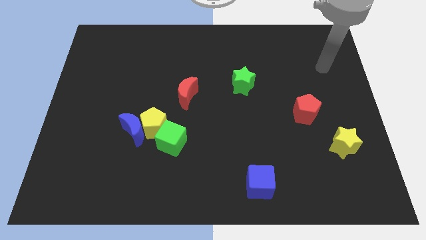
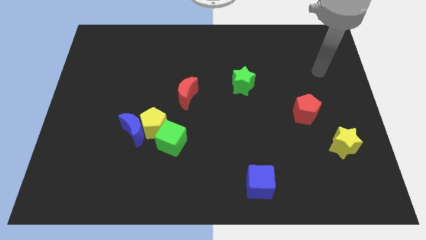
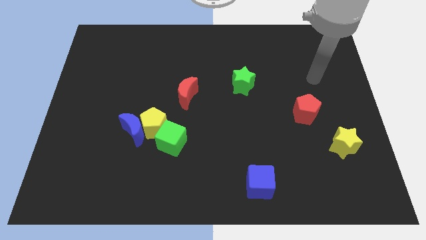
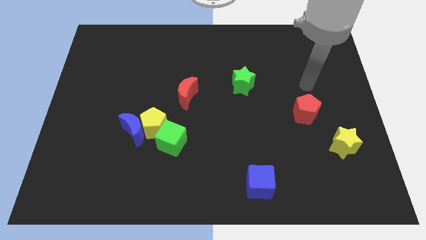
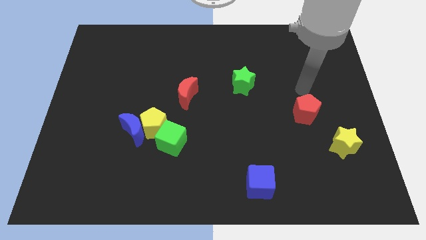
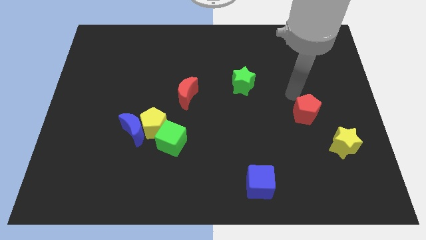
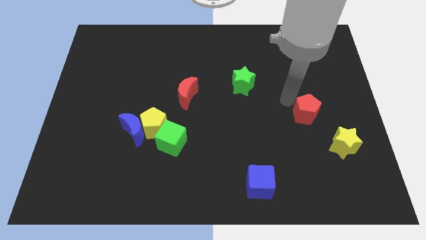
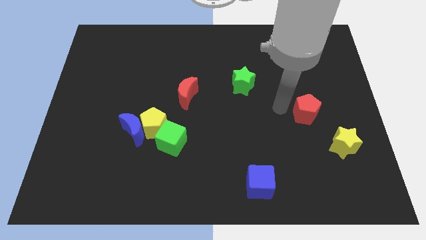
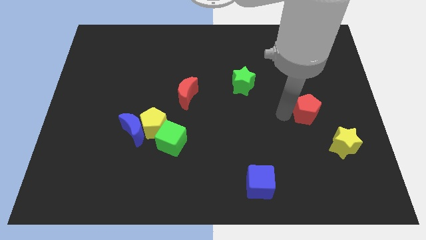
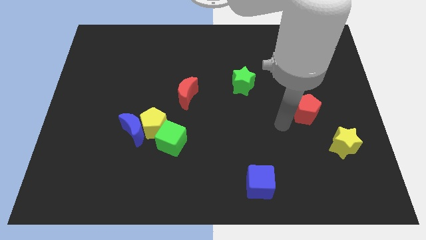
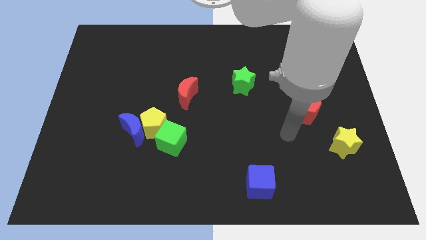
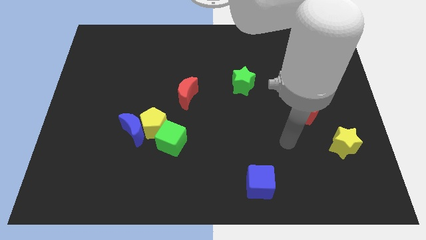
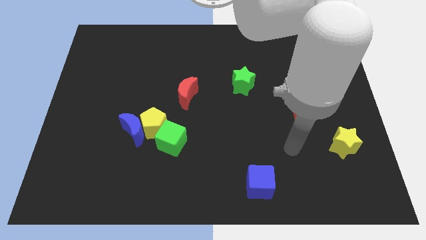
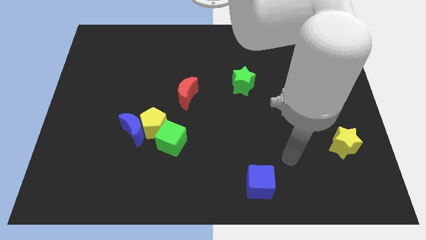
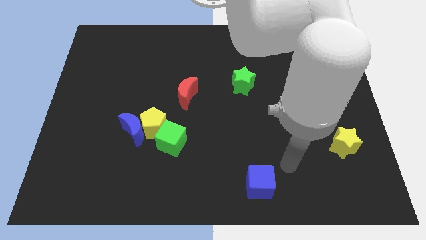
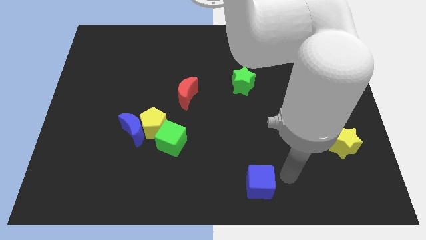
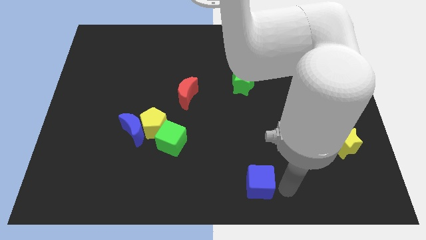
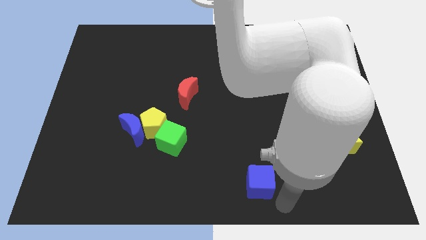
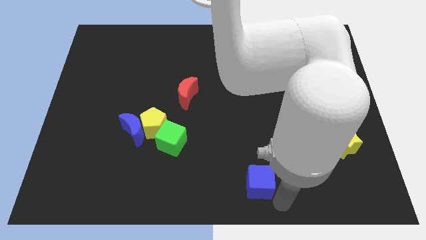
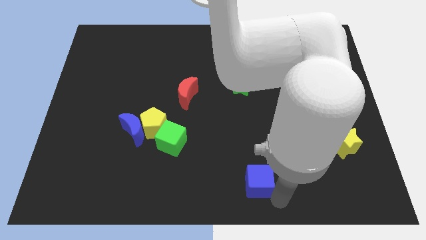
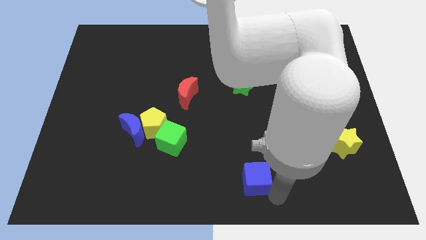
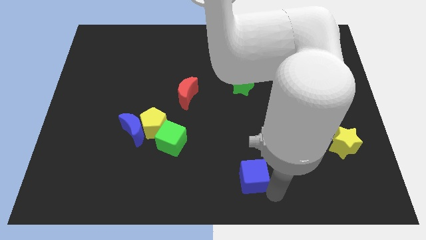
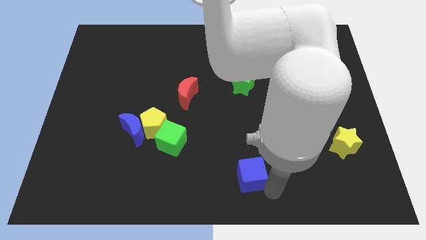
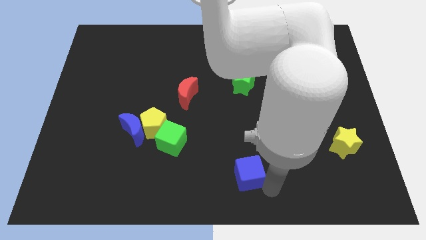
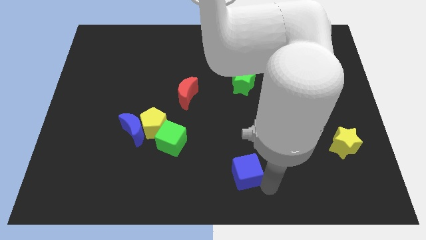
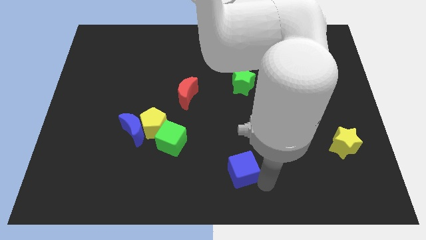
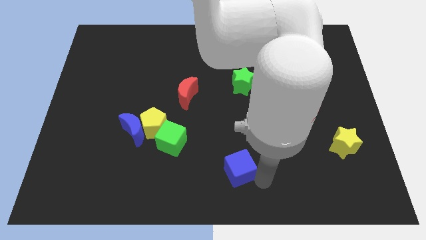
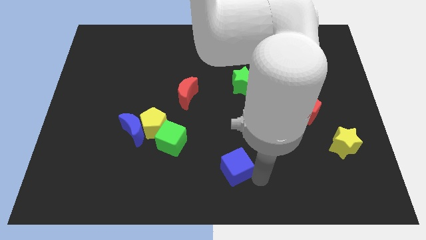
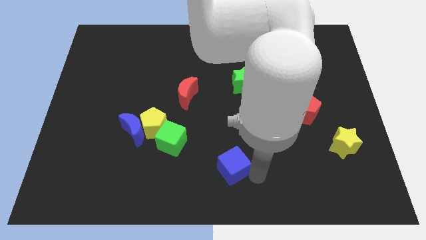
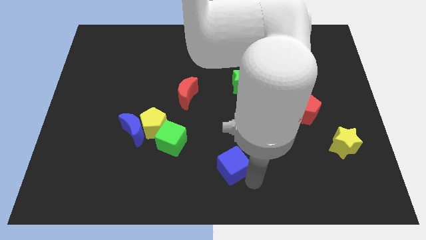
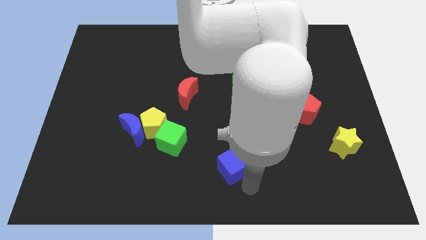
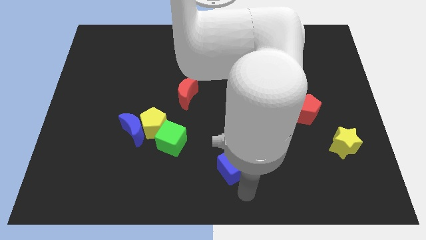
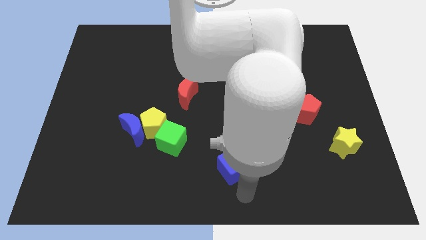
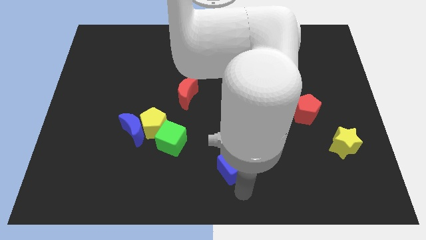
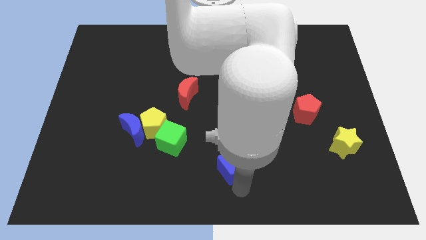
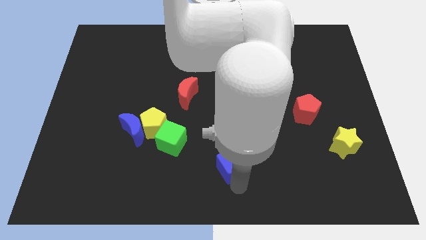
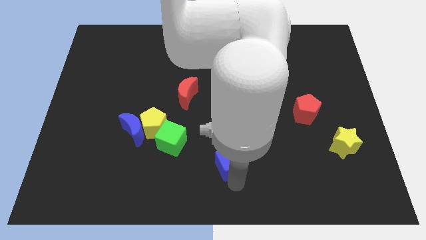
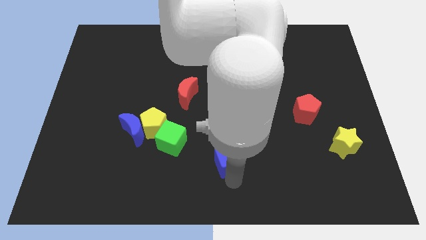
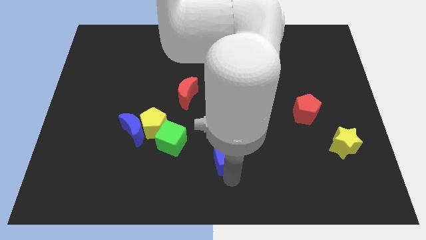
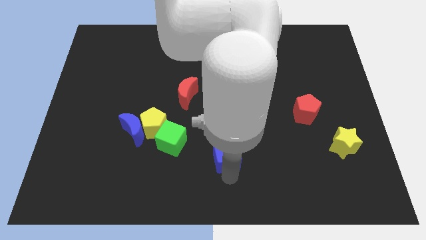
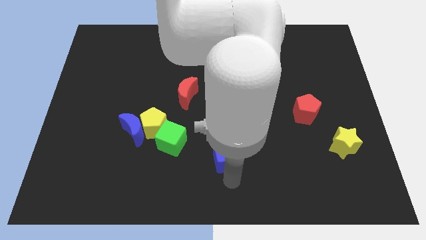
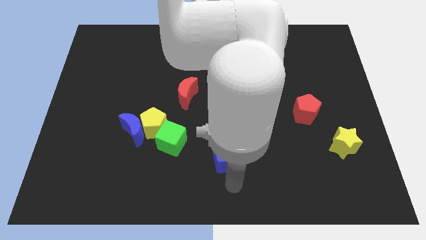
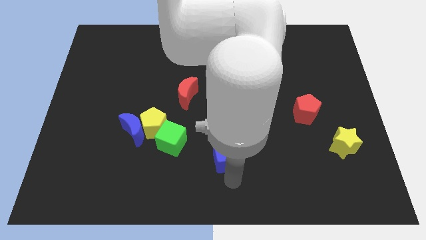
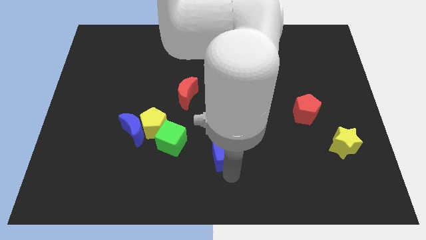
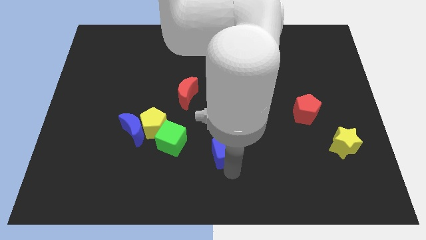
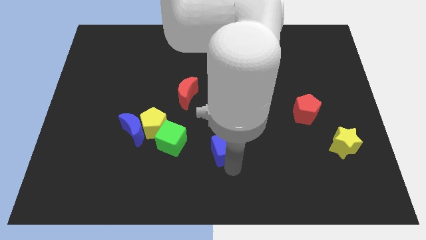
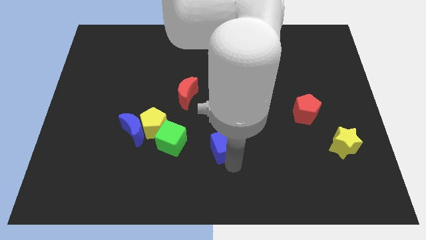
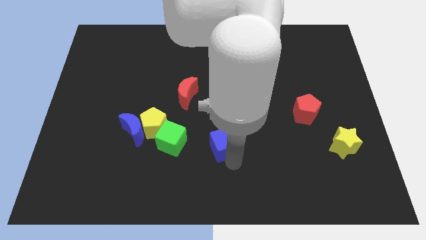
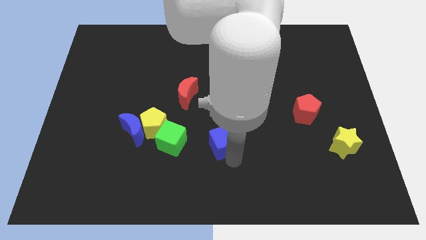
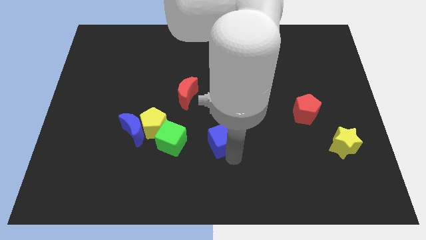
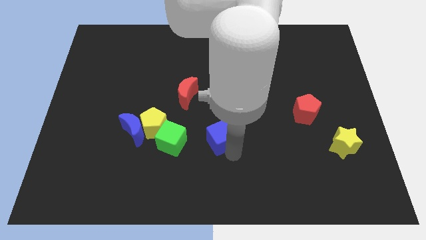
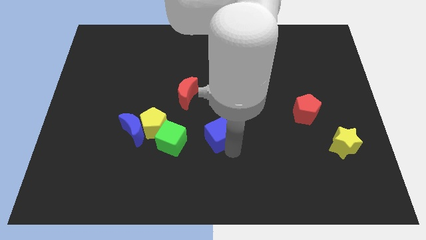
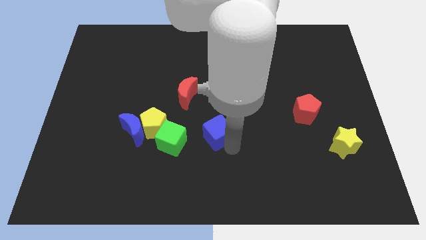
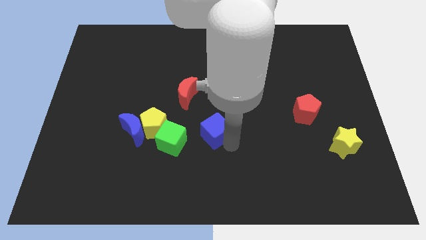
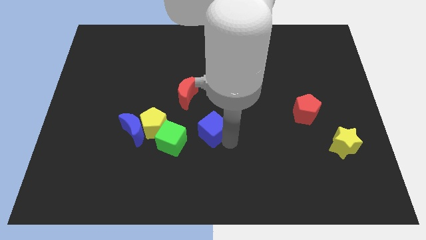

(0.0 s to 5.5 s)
push the blue cube to the top right of the green cube

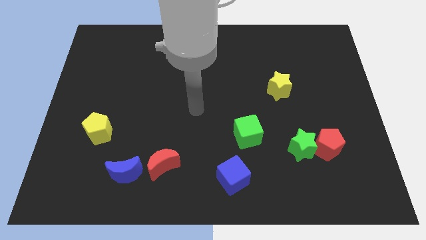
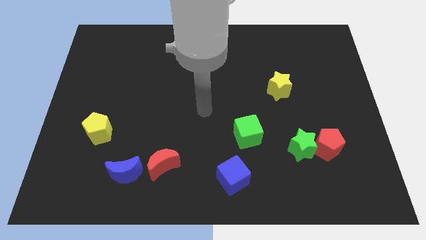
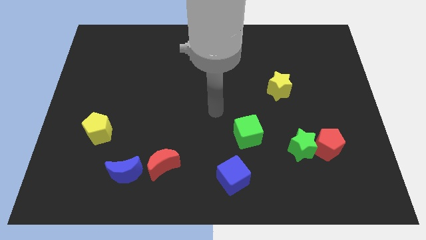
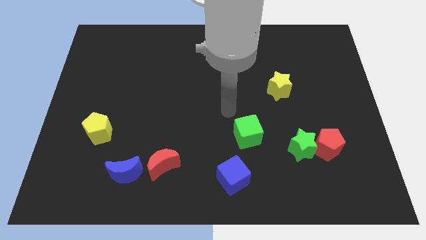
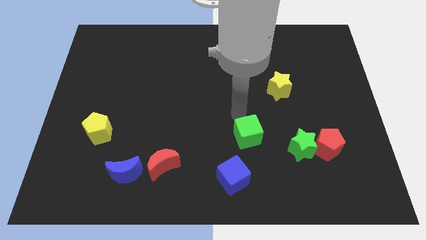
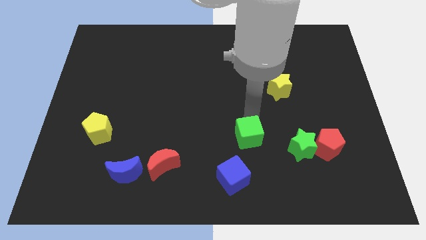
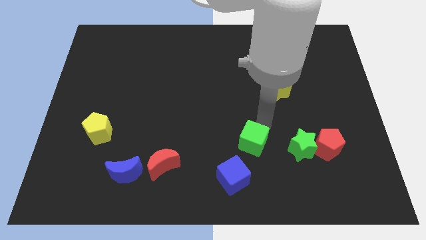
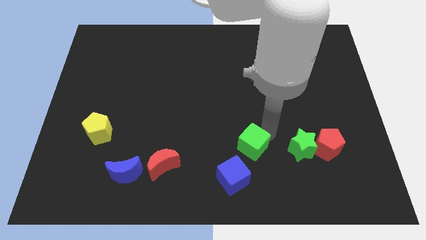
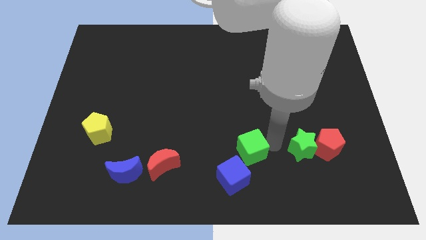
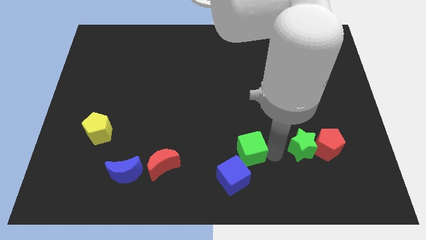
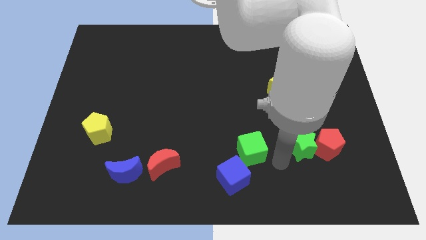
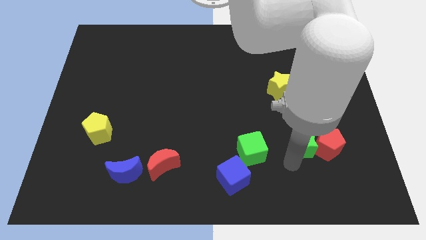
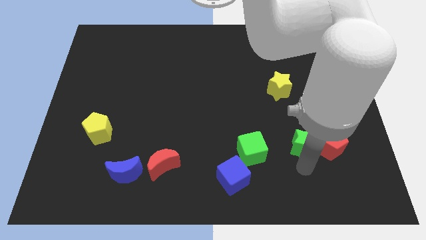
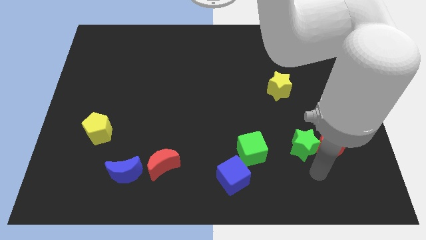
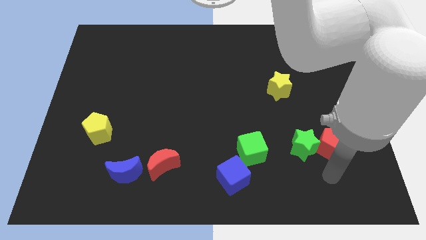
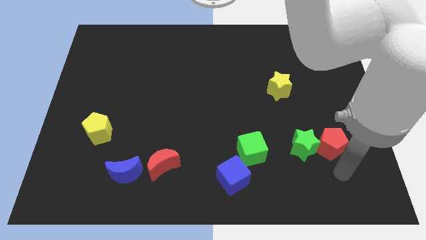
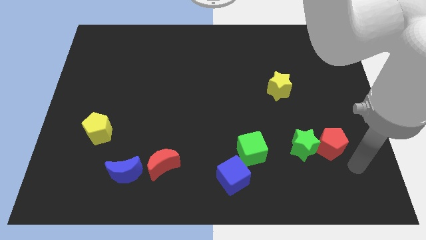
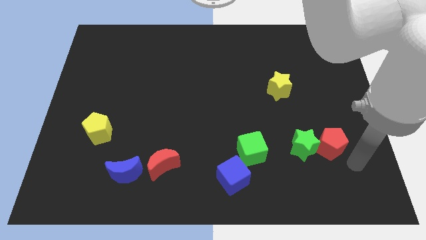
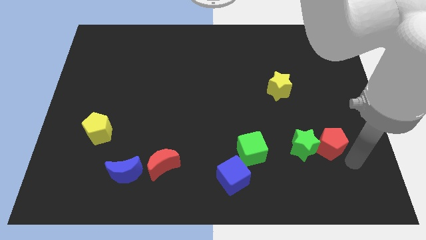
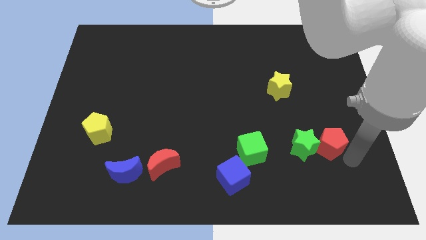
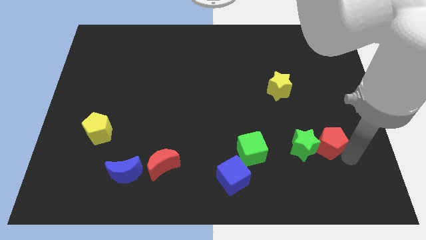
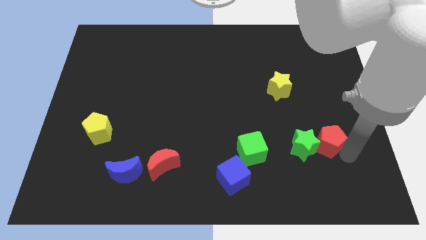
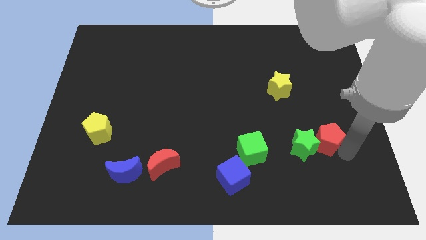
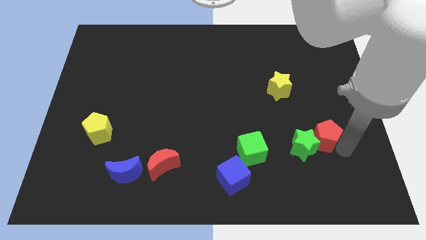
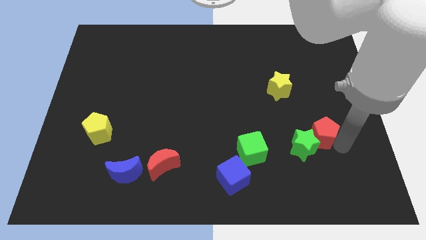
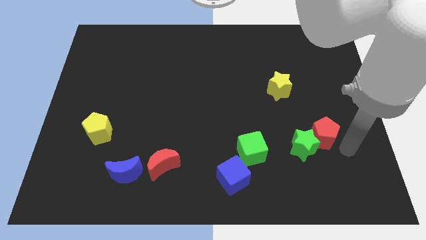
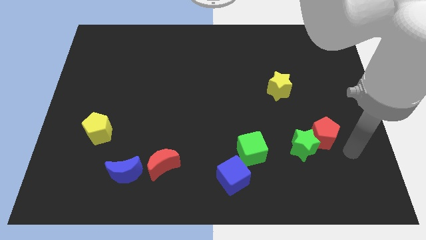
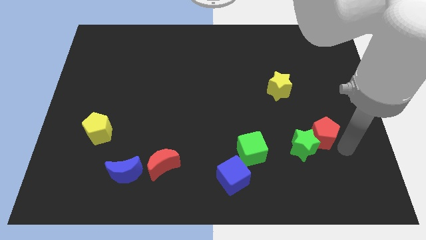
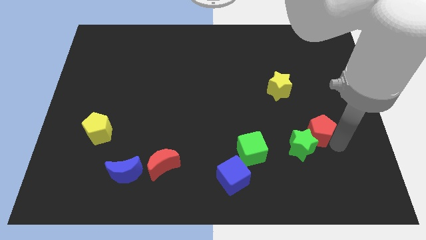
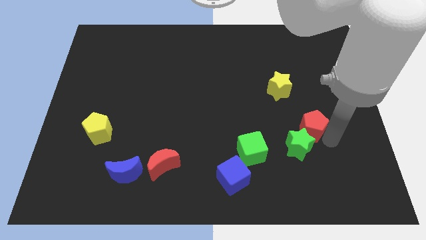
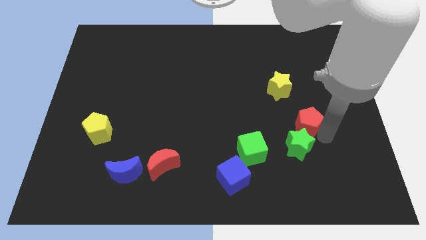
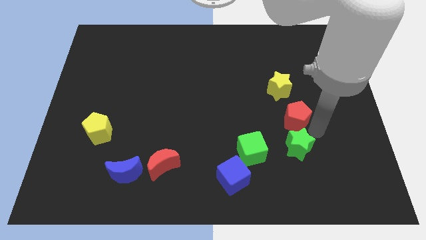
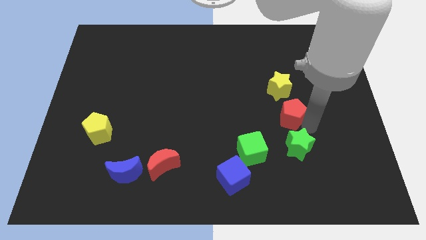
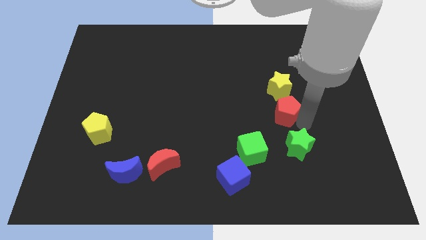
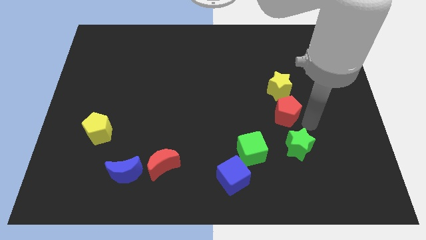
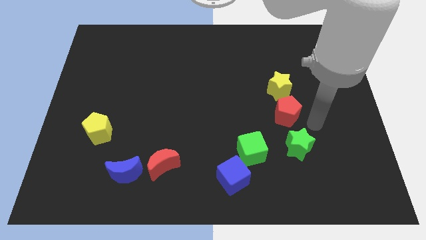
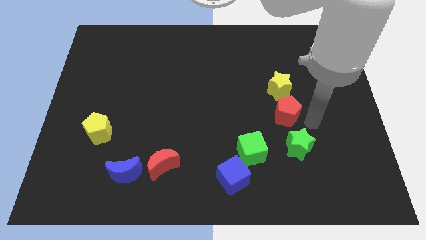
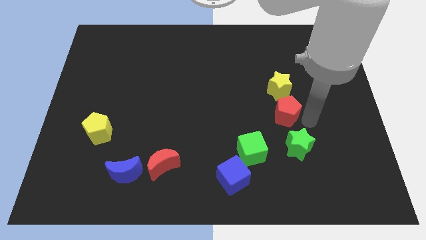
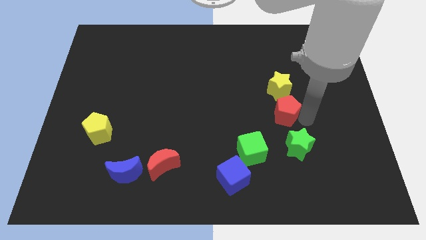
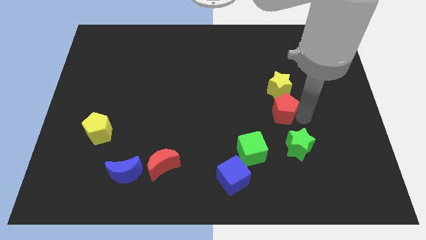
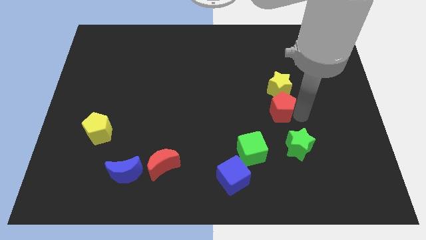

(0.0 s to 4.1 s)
put the red pentagon to the bottom left of the yellow star
